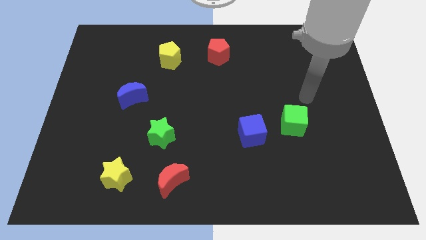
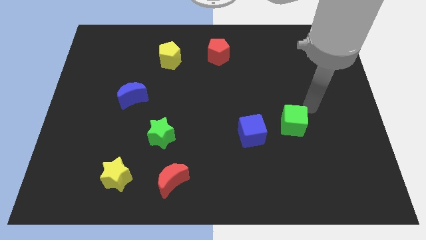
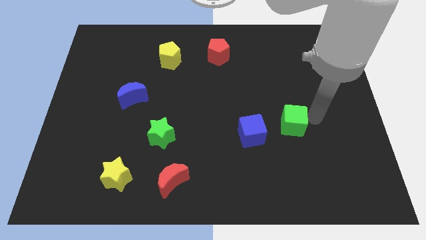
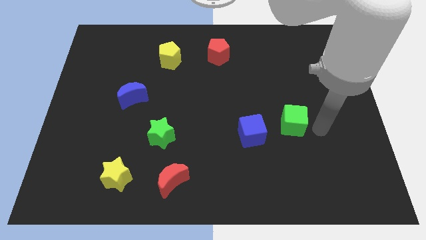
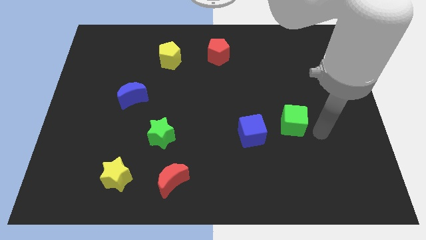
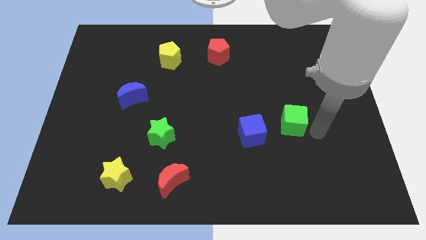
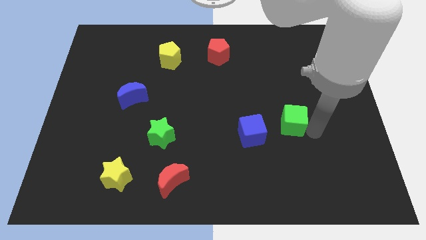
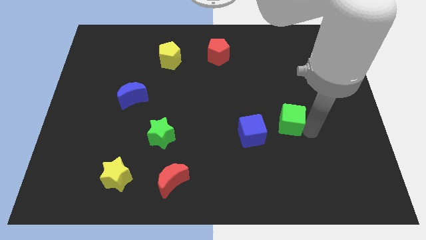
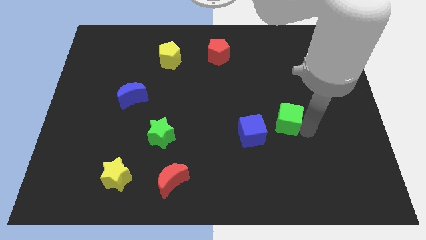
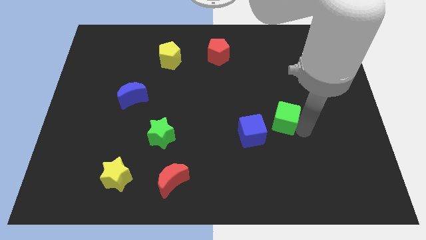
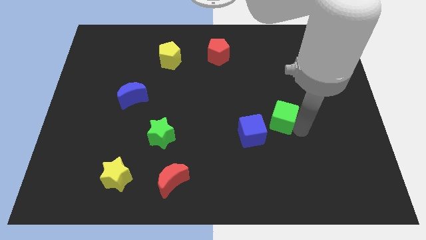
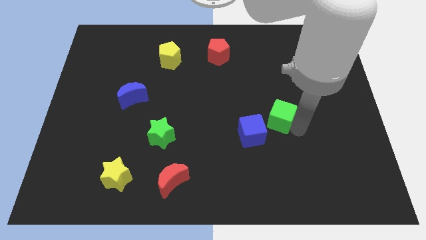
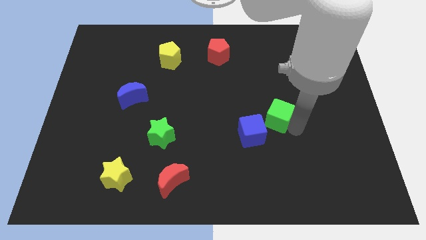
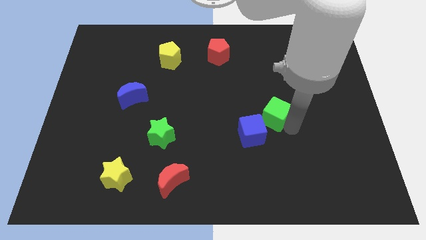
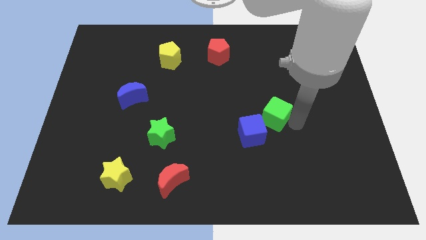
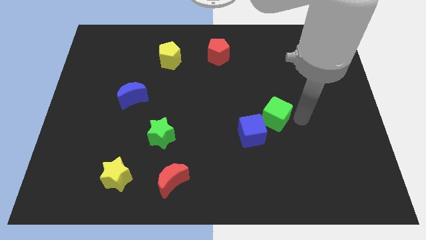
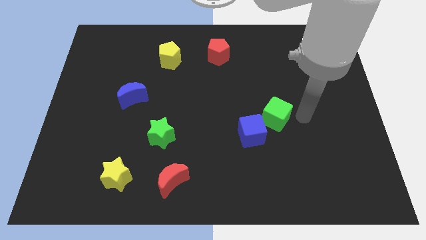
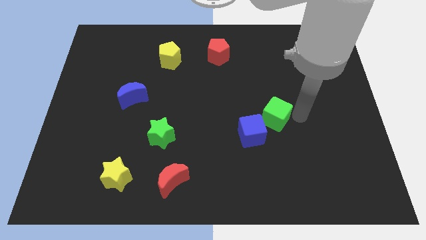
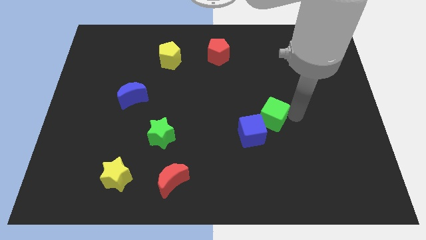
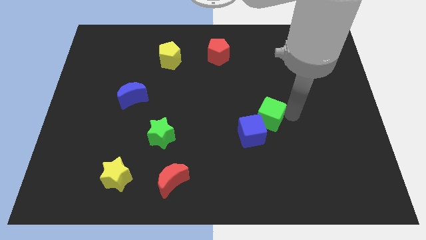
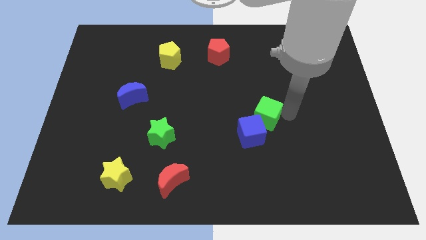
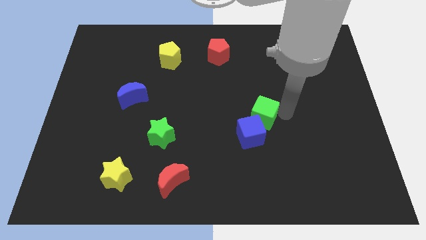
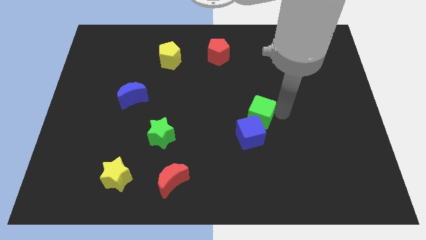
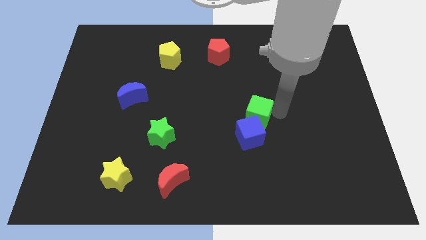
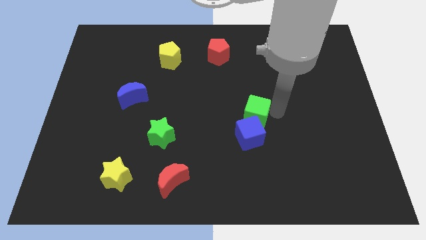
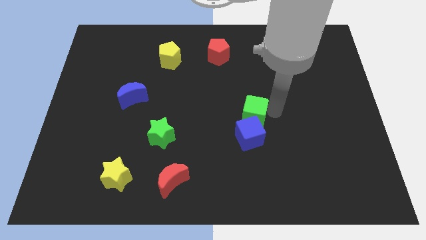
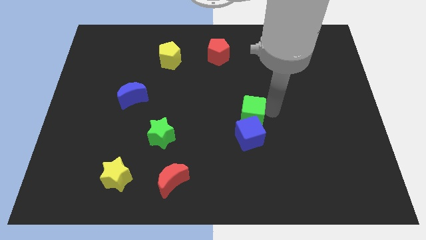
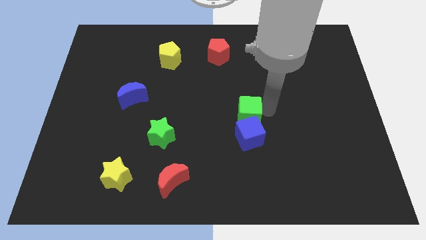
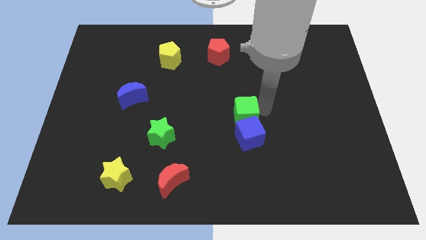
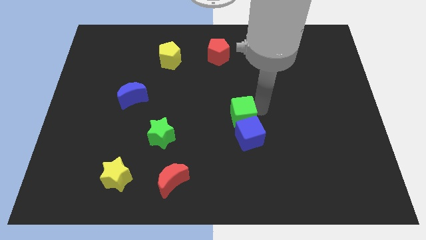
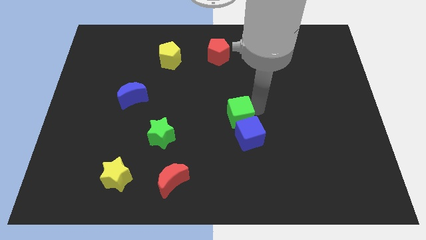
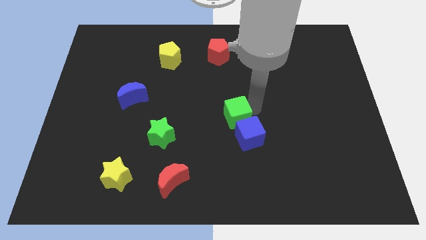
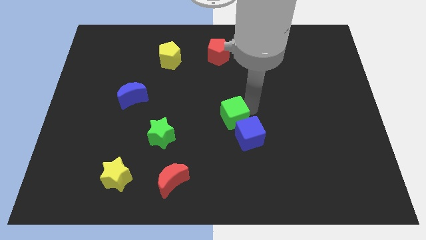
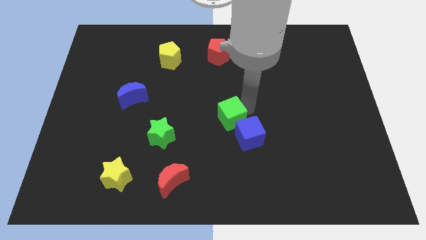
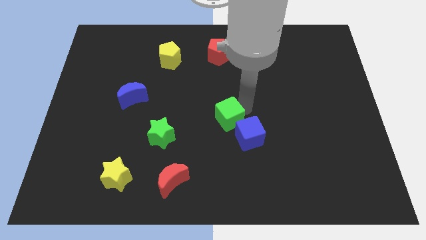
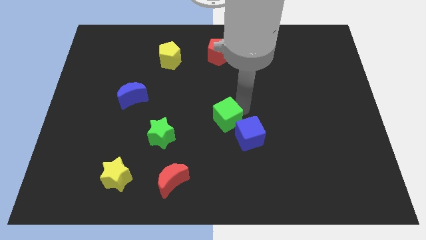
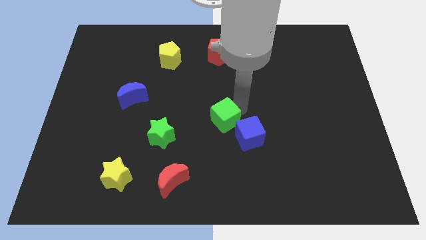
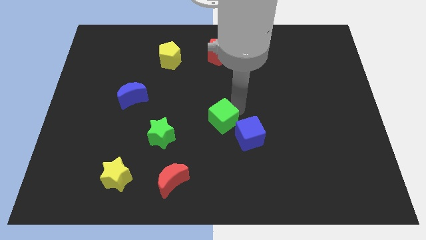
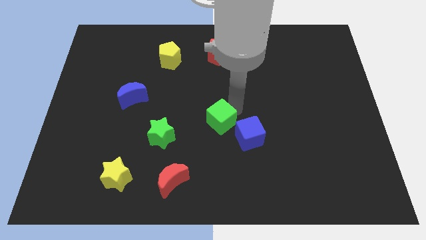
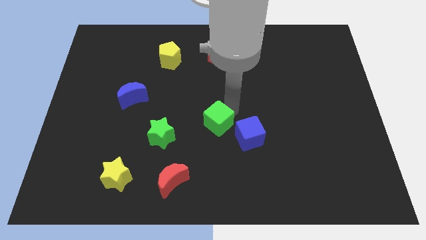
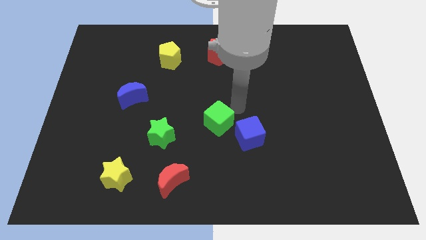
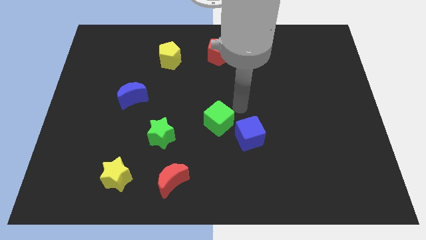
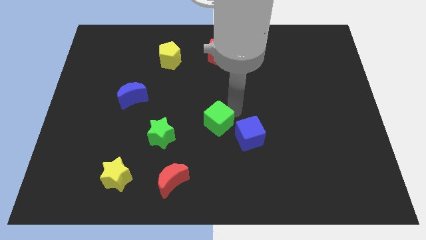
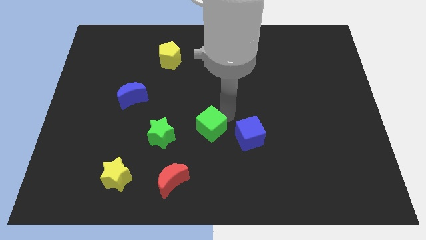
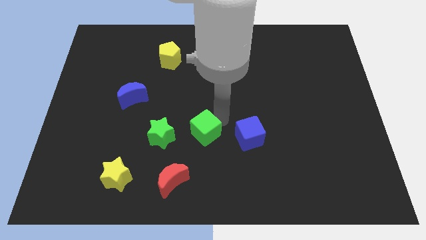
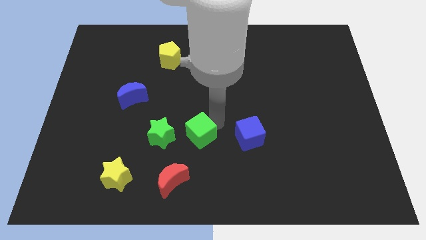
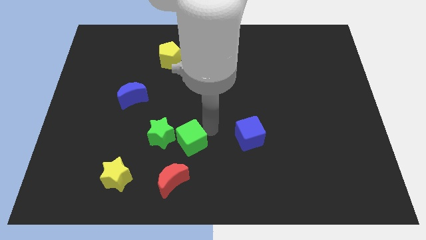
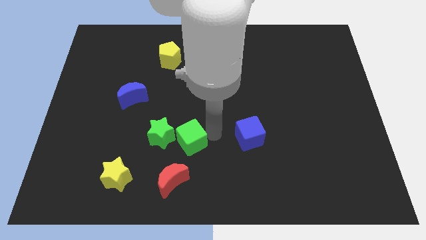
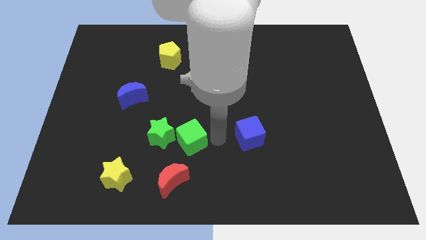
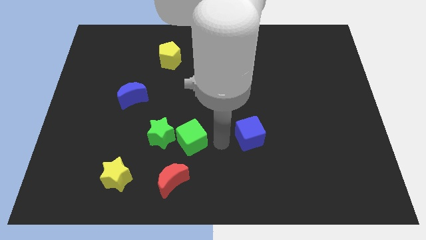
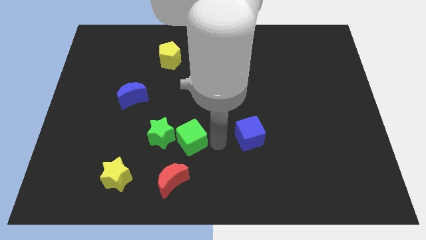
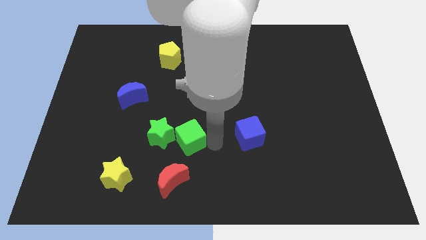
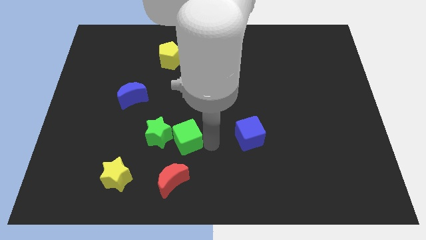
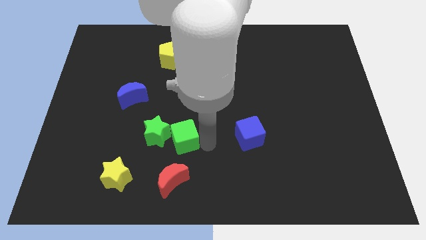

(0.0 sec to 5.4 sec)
slide the green cube to the green star

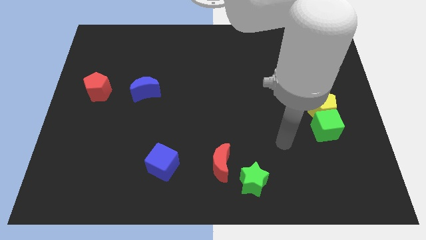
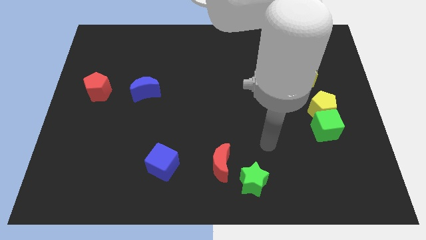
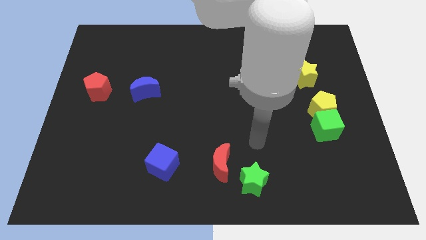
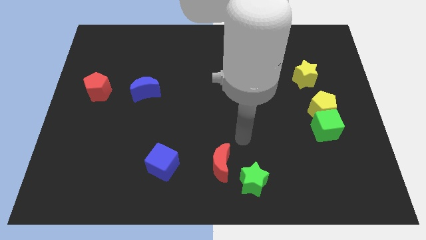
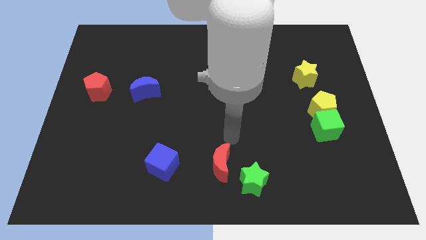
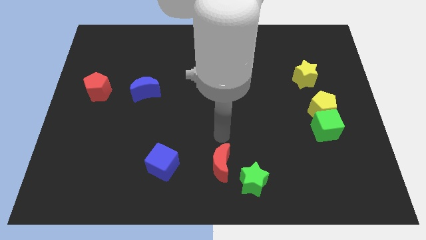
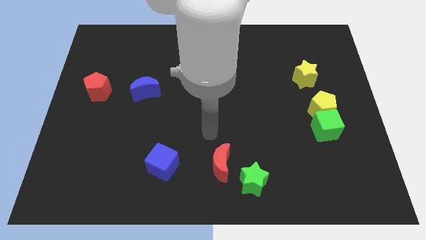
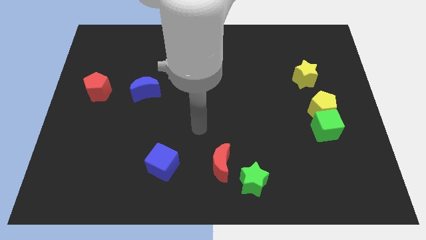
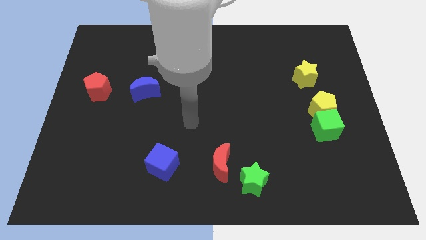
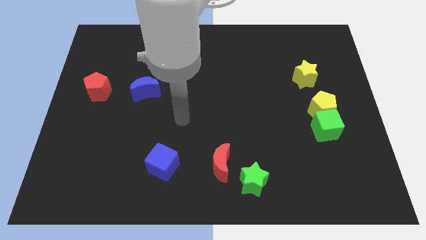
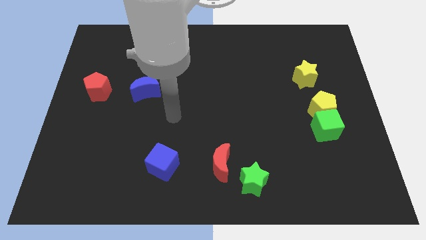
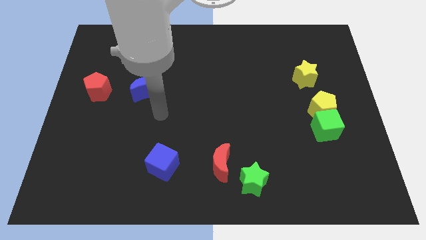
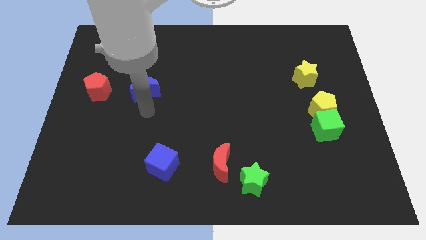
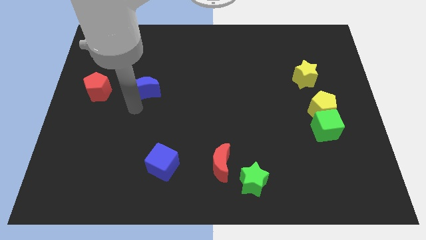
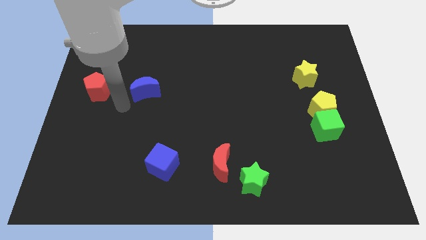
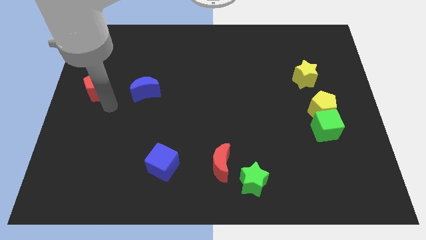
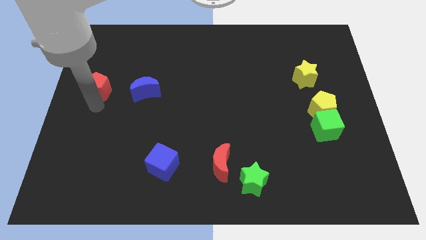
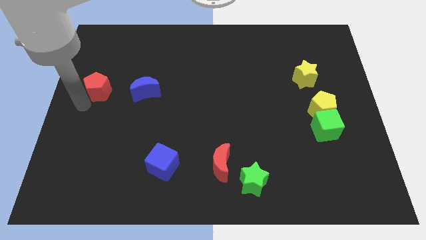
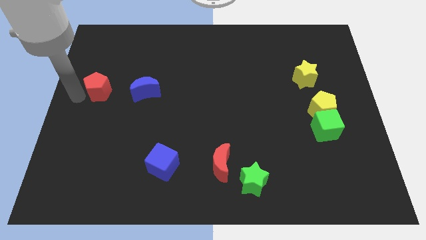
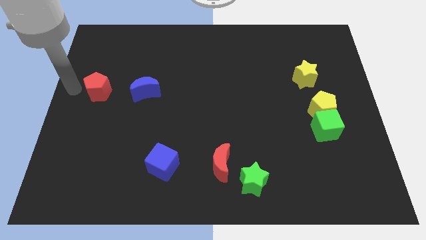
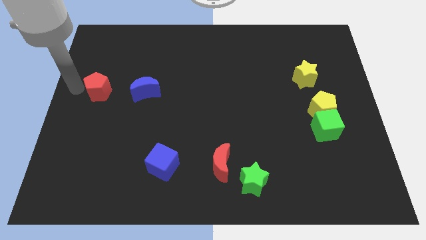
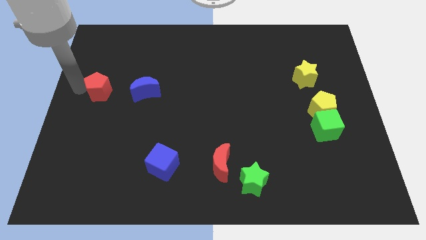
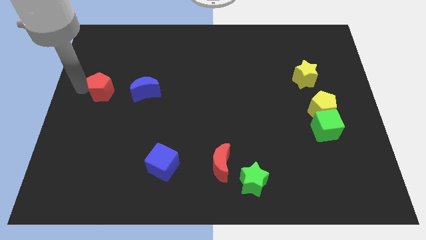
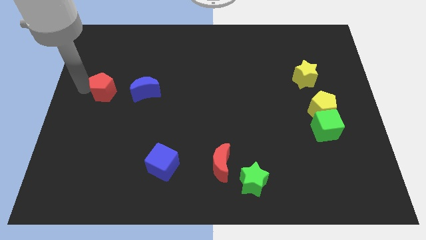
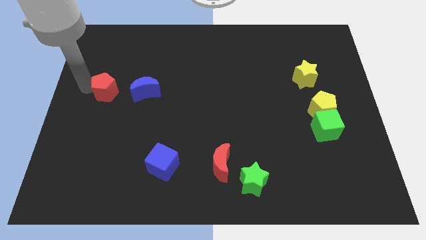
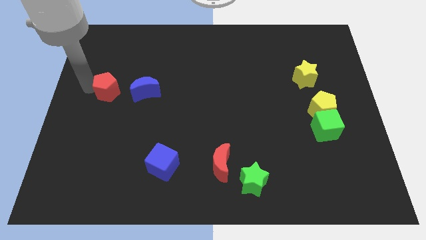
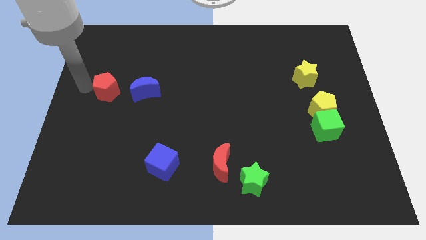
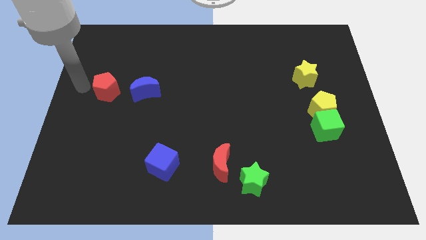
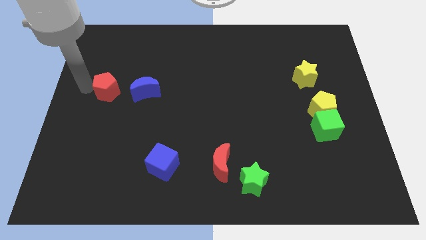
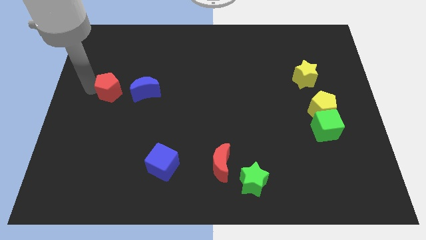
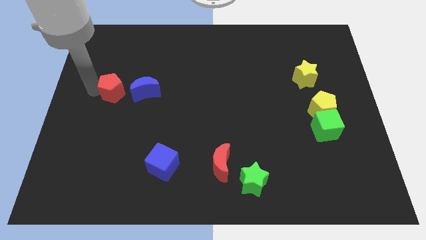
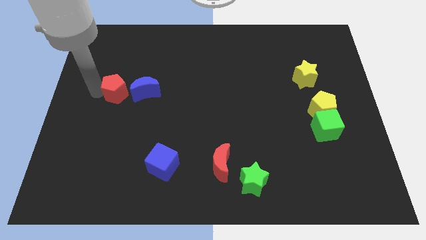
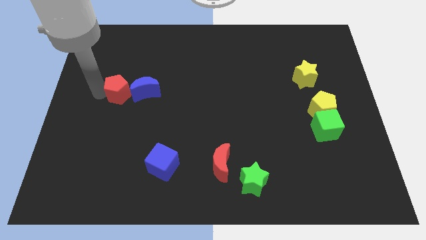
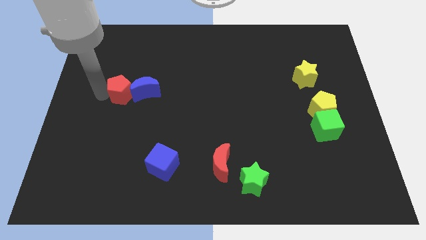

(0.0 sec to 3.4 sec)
move the red pentagon towards the blue moon
